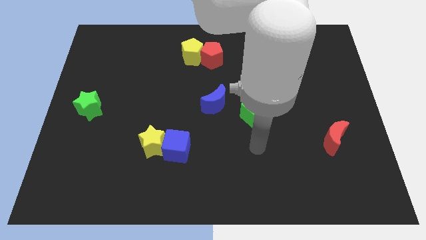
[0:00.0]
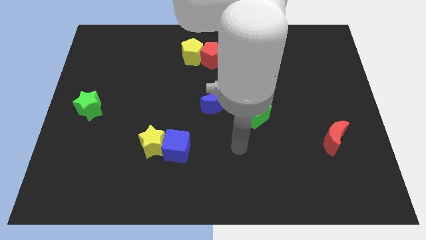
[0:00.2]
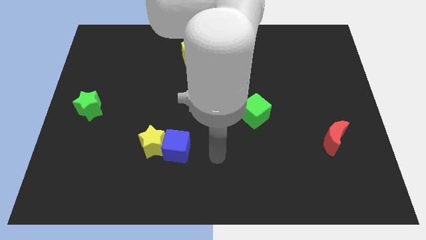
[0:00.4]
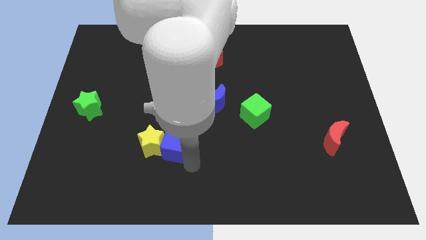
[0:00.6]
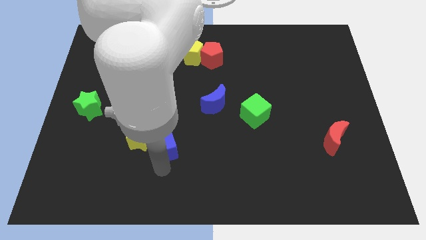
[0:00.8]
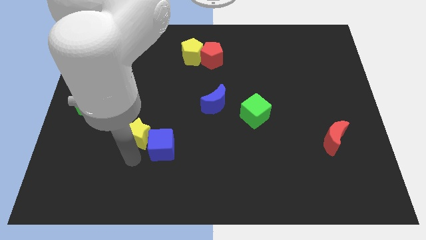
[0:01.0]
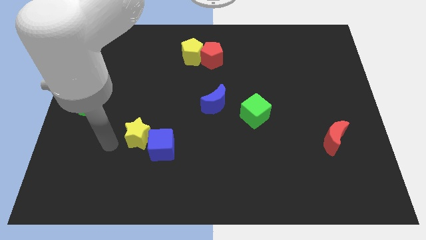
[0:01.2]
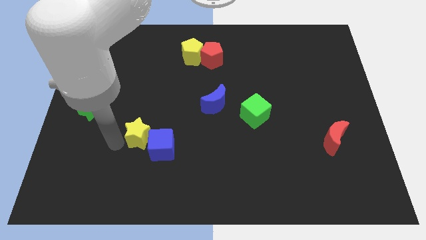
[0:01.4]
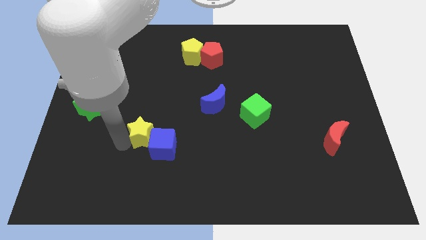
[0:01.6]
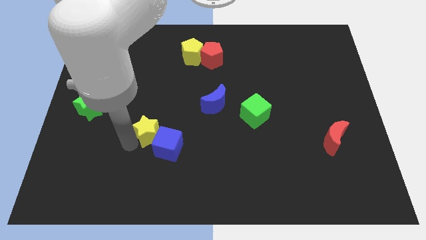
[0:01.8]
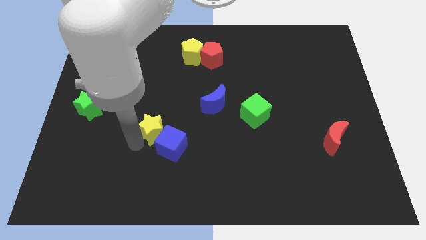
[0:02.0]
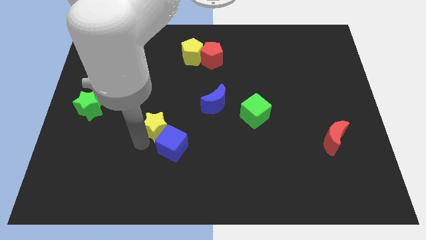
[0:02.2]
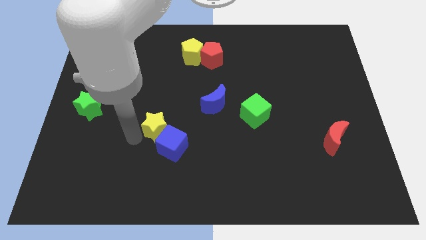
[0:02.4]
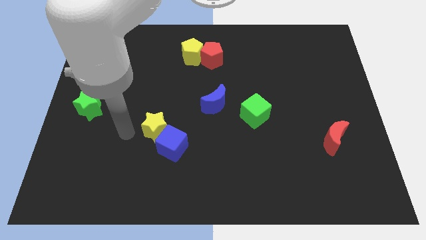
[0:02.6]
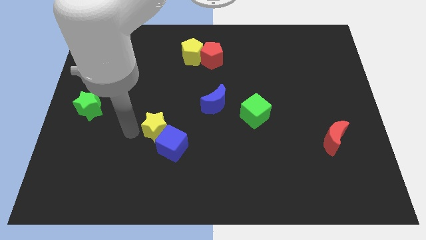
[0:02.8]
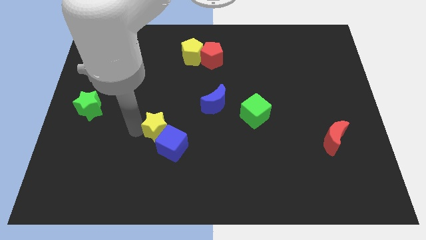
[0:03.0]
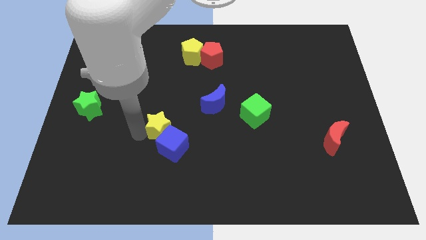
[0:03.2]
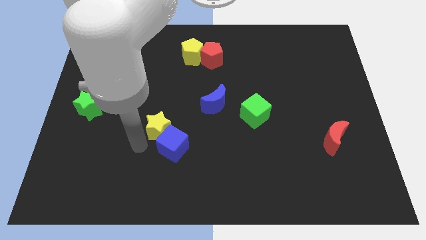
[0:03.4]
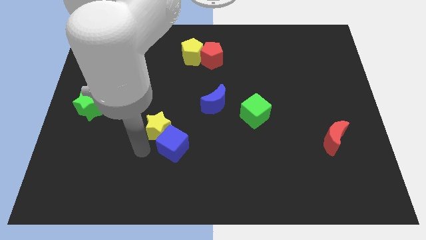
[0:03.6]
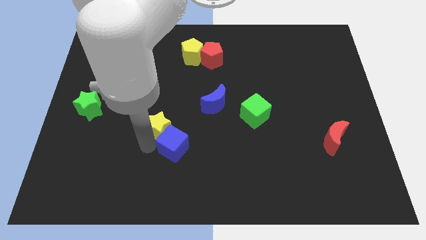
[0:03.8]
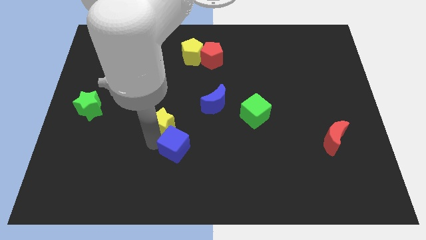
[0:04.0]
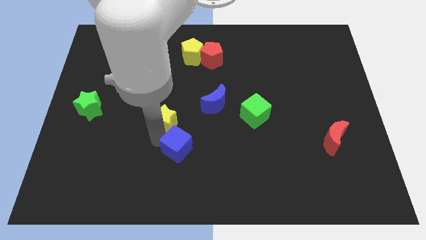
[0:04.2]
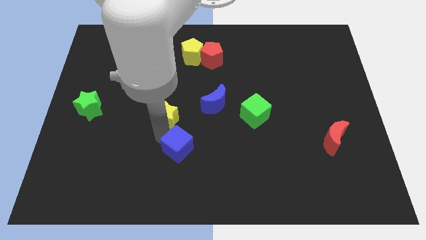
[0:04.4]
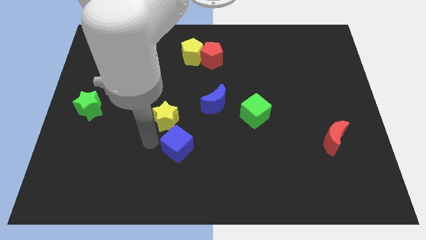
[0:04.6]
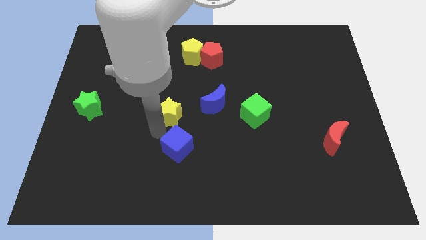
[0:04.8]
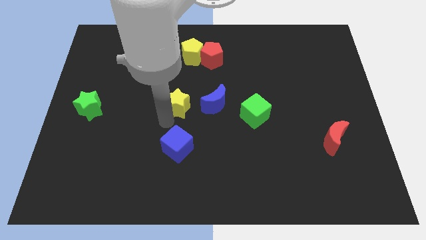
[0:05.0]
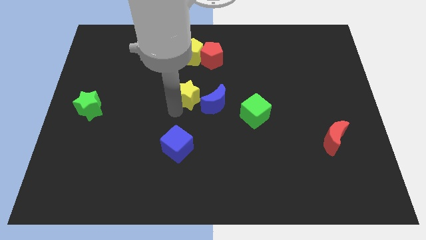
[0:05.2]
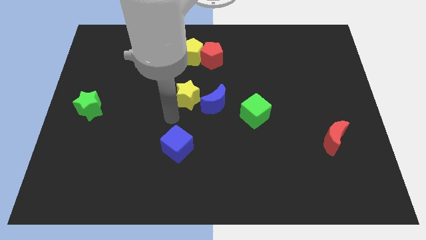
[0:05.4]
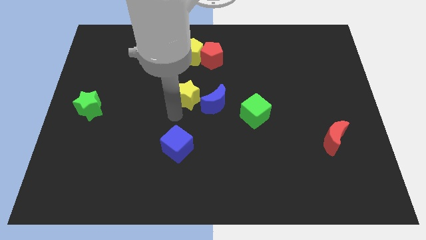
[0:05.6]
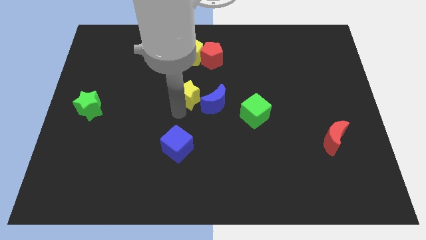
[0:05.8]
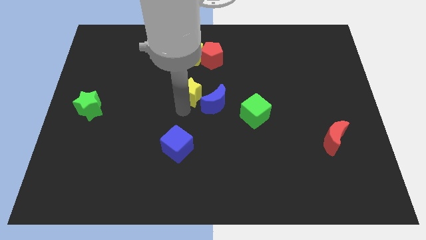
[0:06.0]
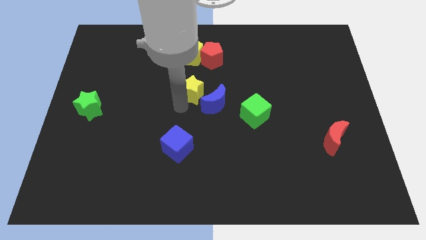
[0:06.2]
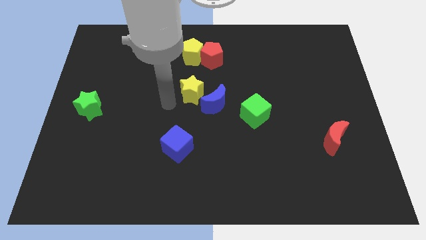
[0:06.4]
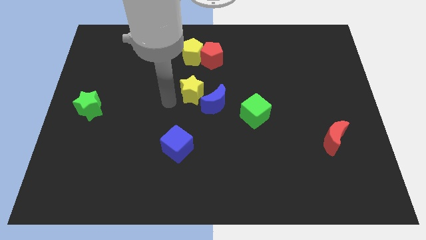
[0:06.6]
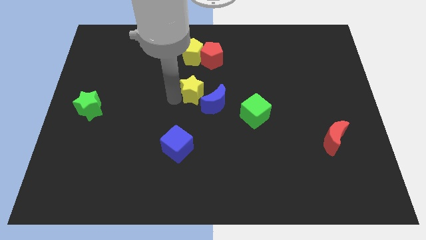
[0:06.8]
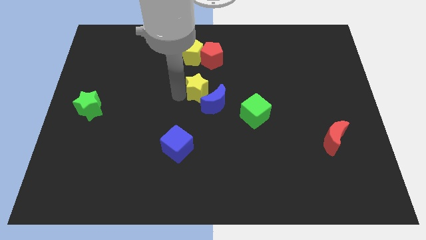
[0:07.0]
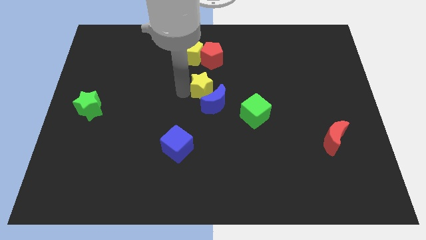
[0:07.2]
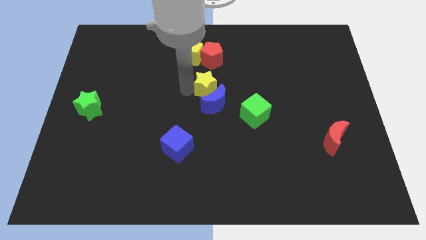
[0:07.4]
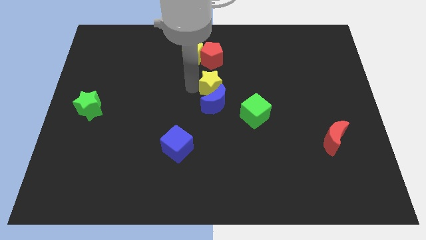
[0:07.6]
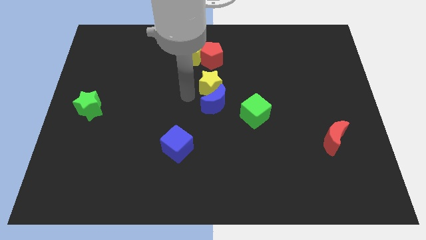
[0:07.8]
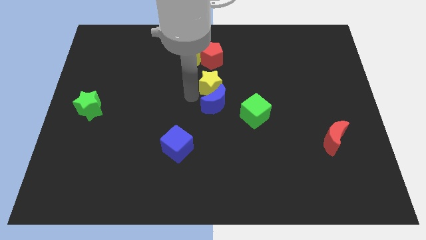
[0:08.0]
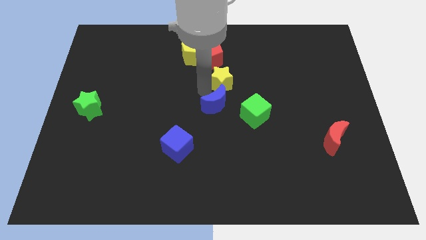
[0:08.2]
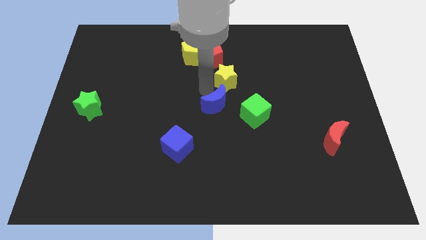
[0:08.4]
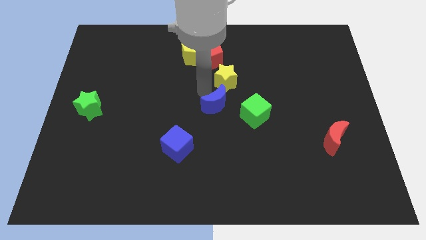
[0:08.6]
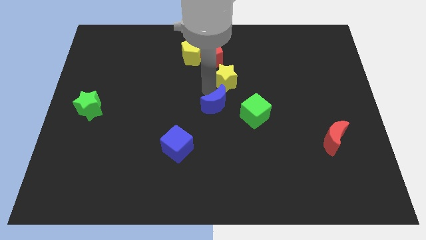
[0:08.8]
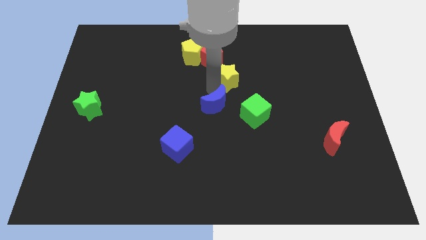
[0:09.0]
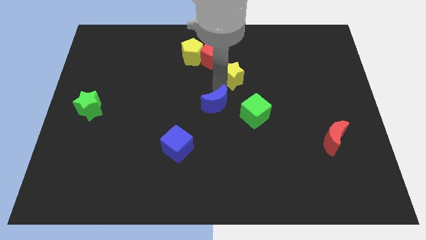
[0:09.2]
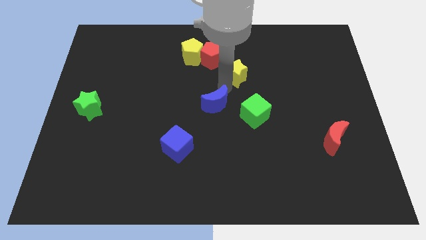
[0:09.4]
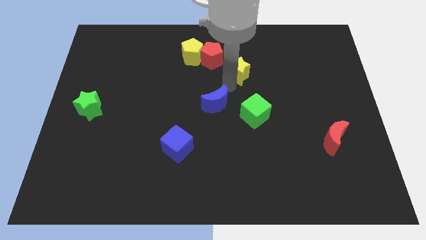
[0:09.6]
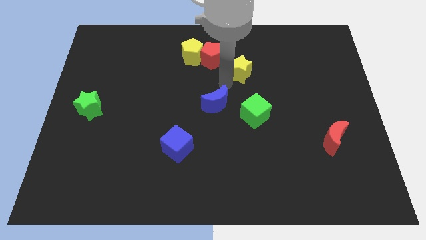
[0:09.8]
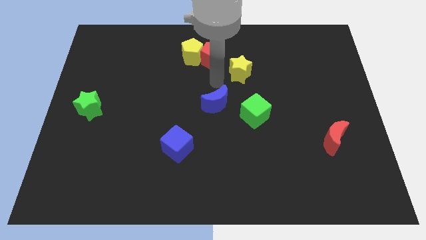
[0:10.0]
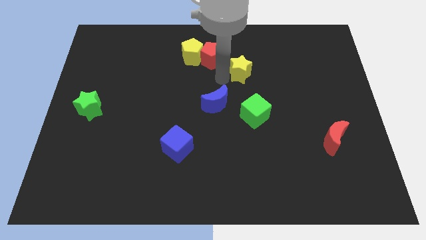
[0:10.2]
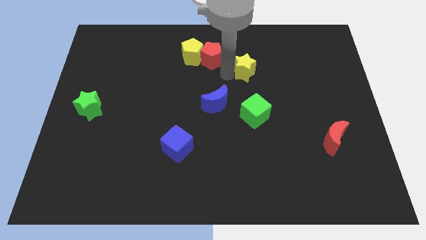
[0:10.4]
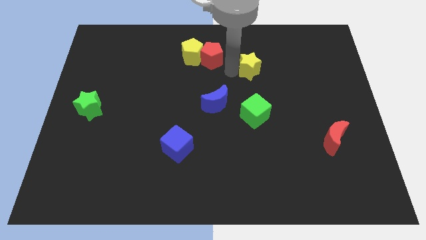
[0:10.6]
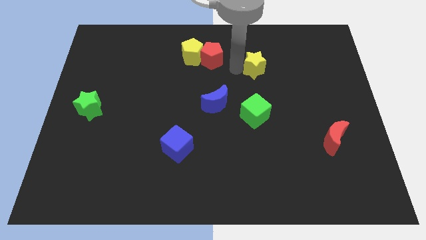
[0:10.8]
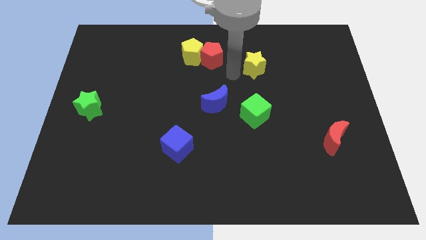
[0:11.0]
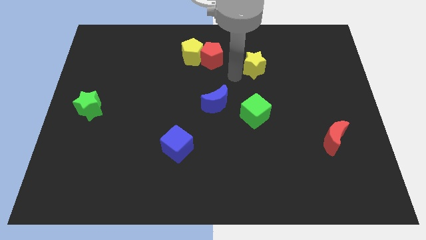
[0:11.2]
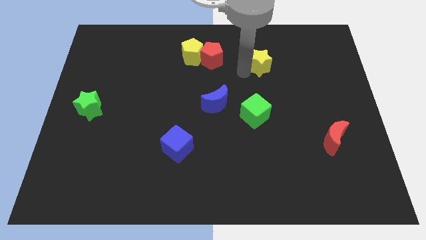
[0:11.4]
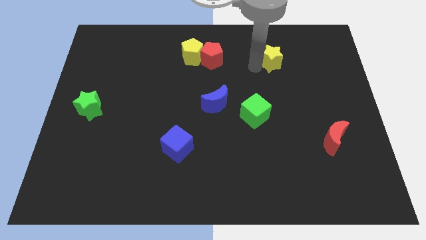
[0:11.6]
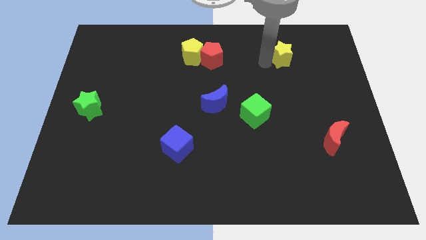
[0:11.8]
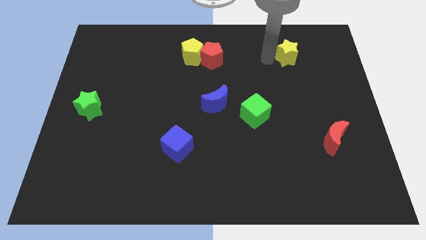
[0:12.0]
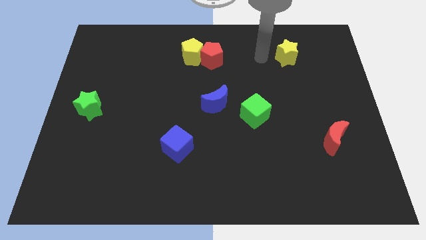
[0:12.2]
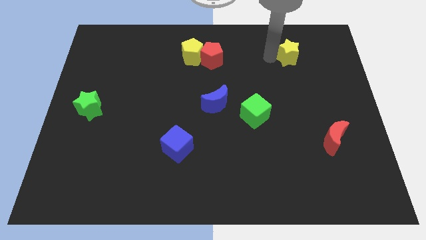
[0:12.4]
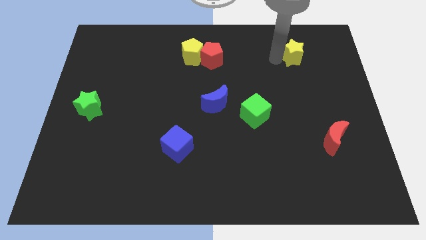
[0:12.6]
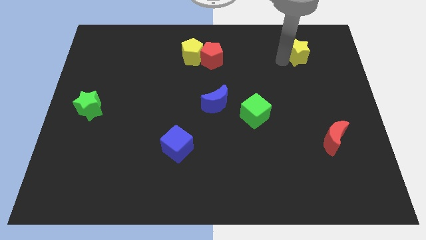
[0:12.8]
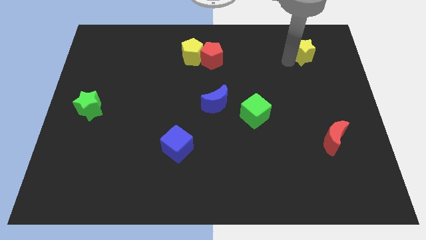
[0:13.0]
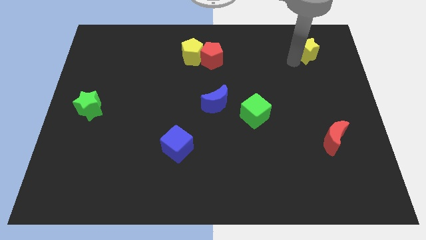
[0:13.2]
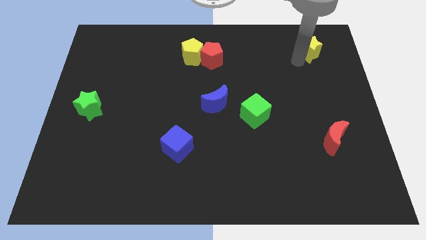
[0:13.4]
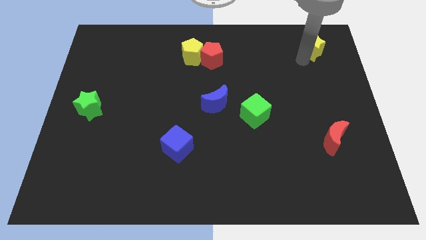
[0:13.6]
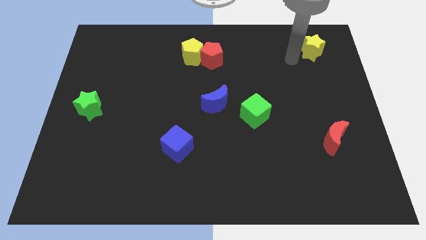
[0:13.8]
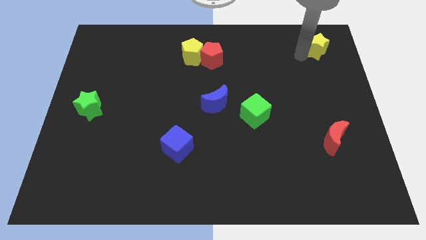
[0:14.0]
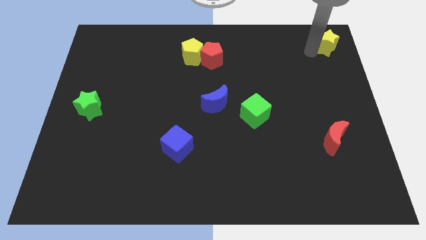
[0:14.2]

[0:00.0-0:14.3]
push the yellow star to the top right of the board
